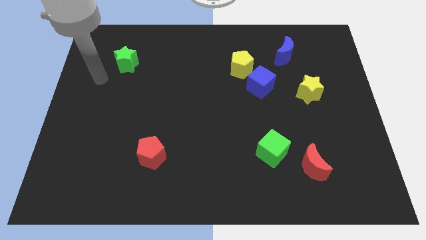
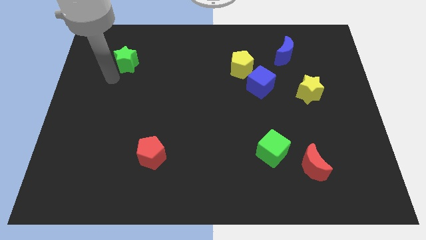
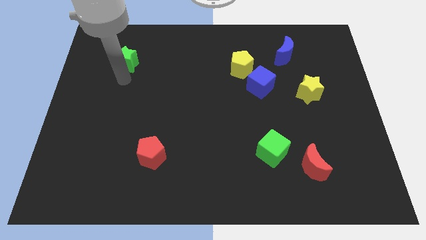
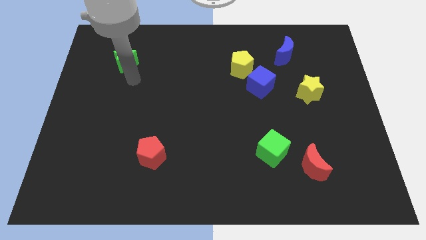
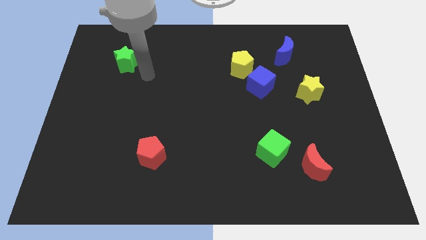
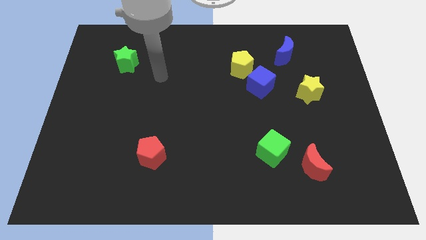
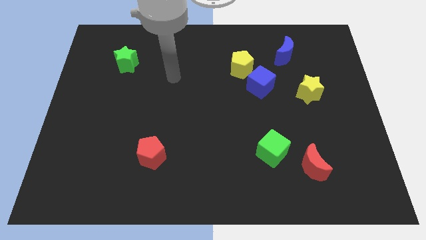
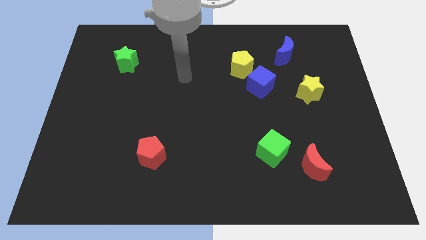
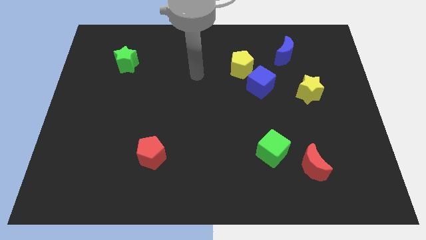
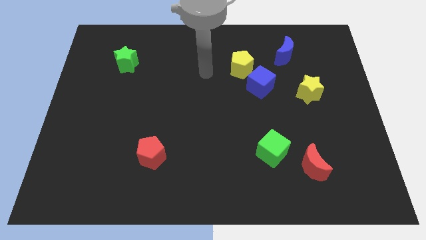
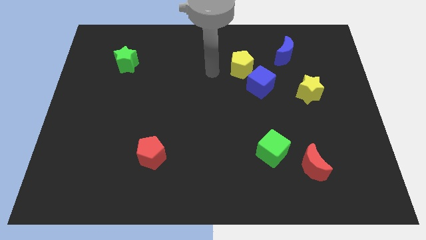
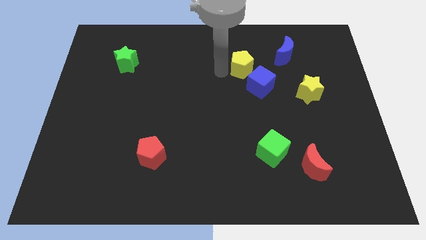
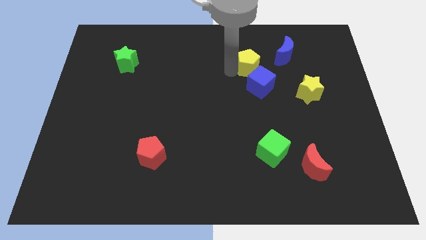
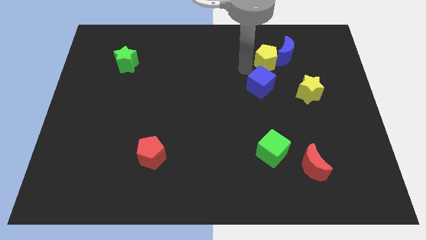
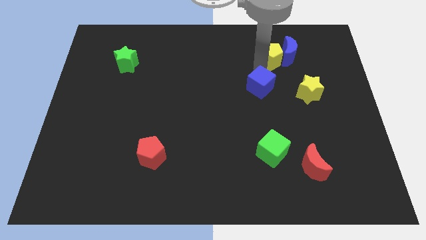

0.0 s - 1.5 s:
pull the blue cube apart from the yellow pentagon

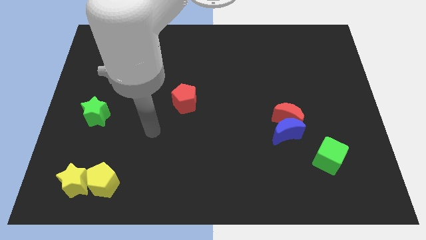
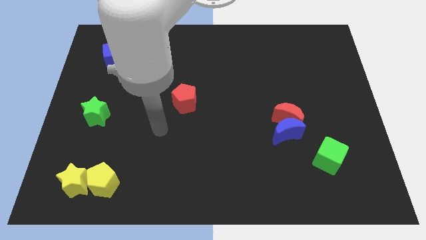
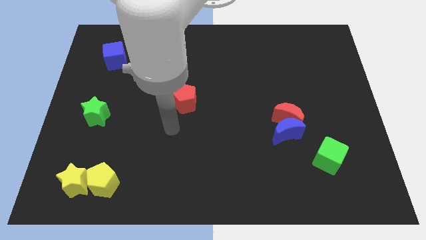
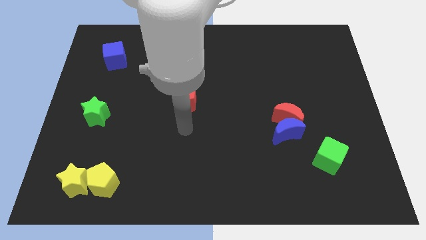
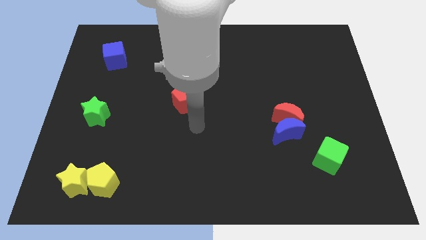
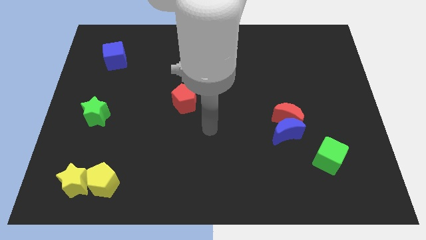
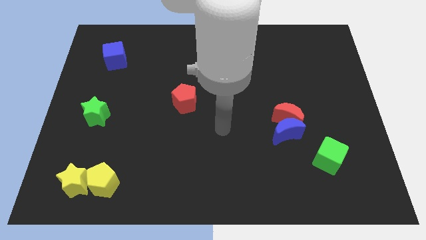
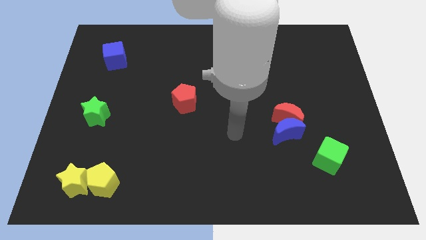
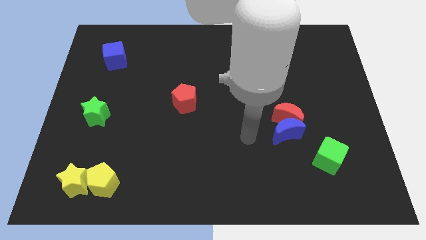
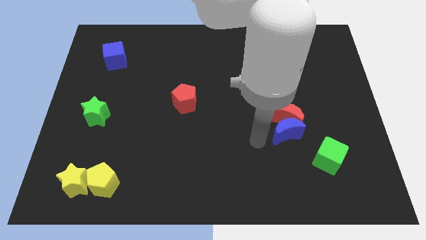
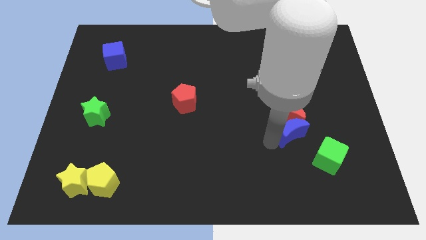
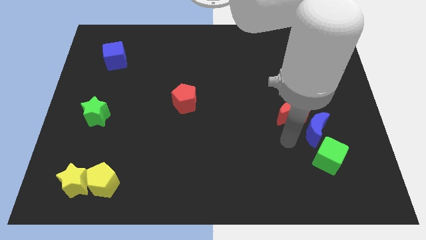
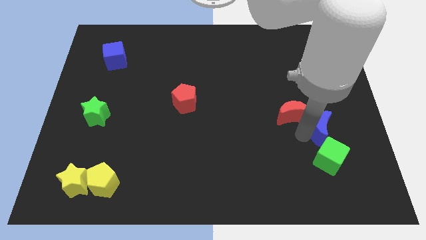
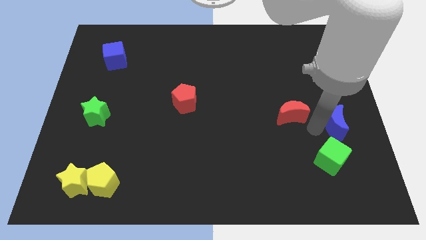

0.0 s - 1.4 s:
pull the red moon apart from the blue moon

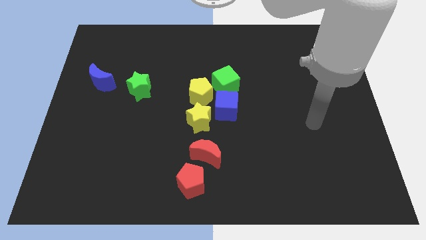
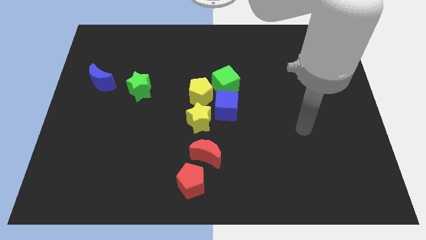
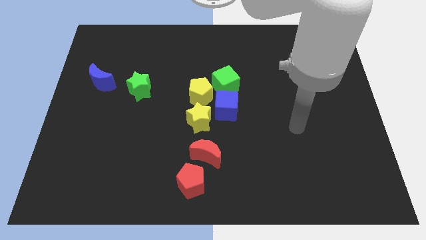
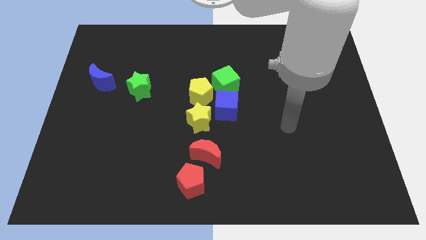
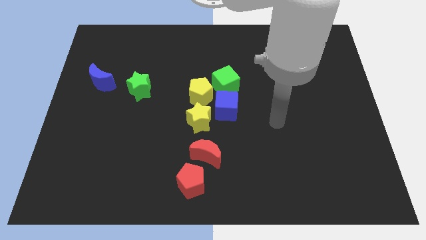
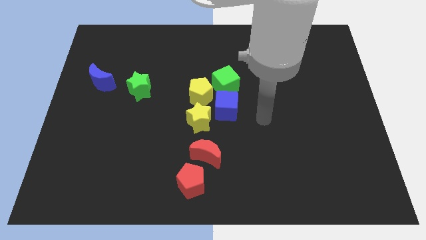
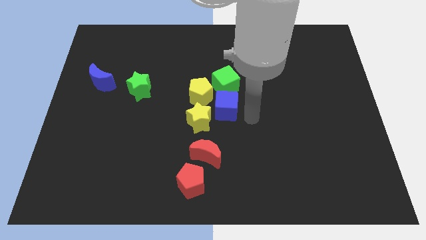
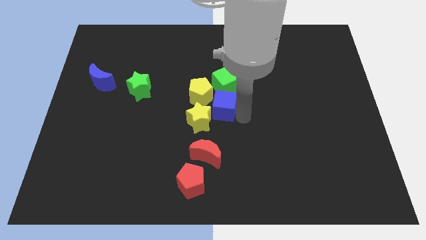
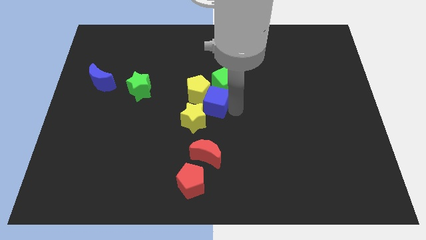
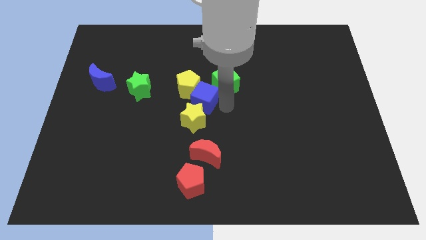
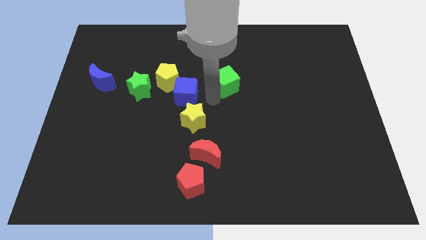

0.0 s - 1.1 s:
move the green cube away from the yellow pentagon and blue cube

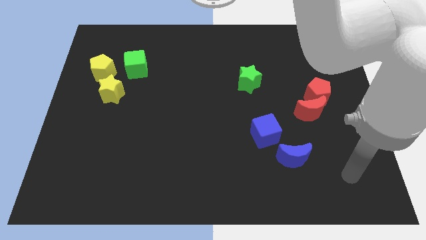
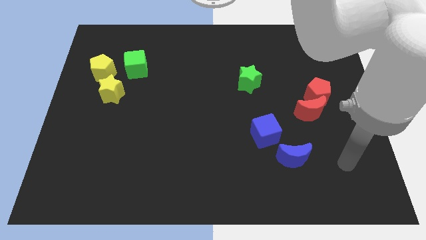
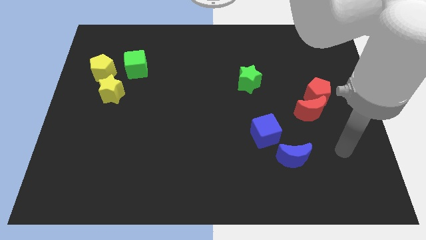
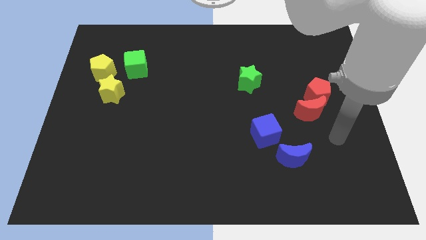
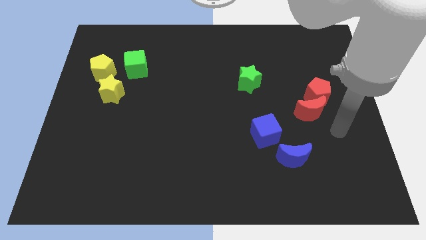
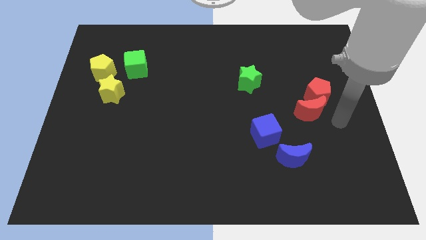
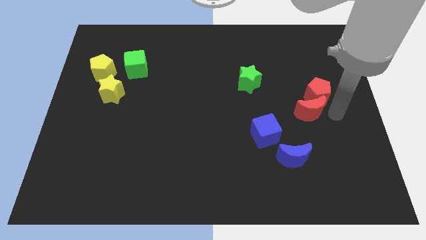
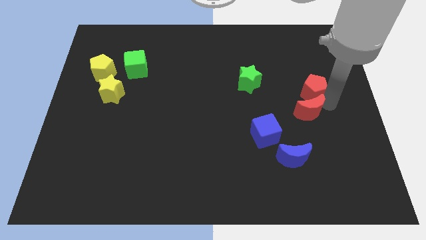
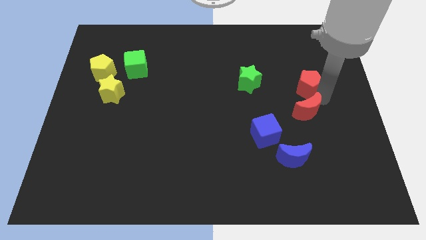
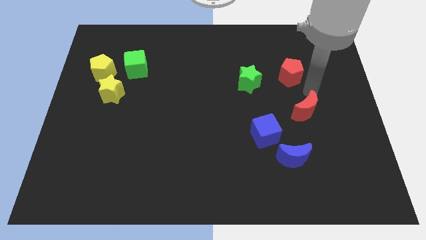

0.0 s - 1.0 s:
separate the red moon from the red pentagon

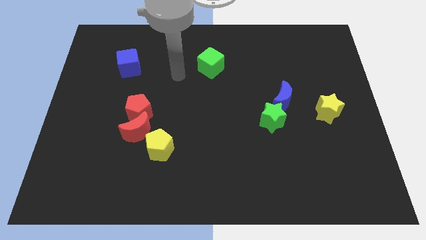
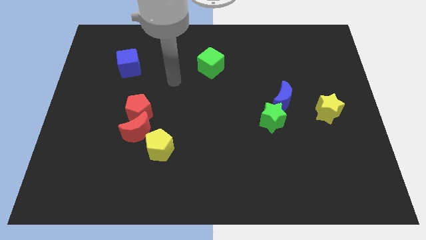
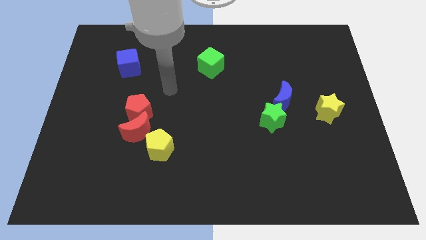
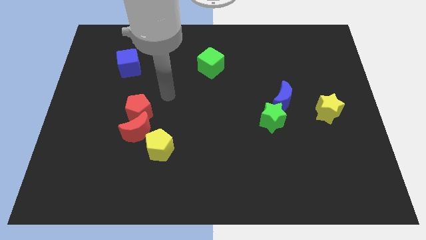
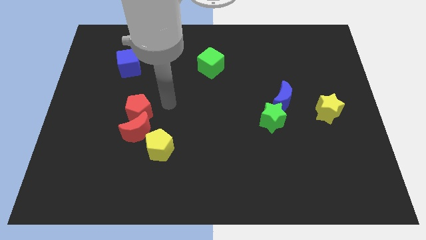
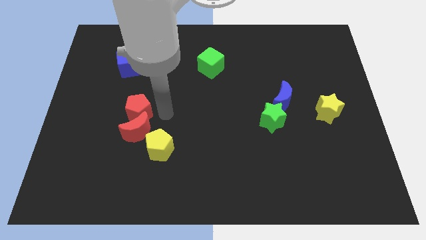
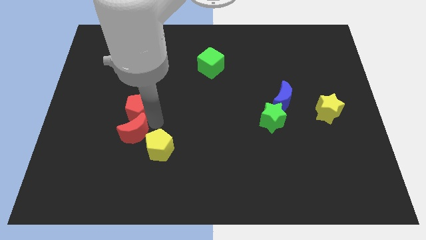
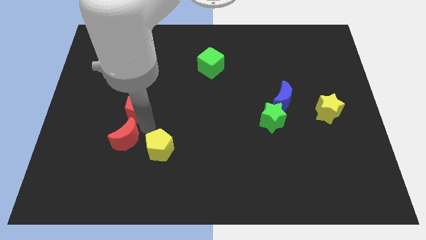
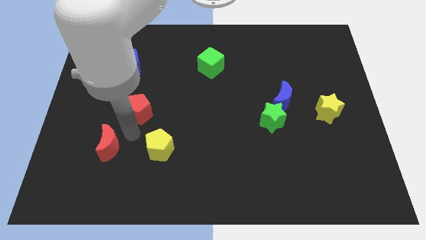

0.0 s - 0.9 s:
pull the red pentagon apart from the red moon

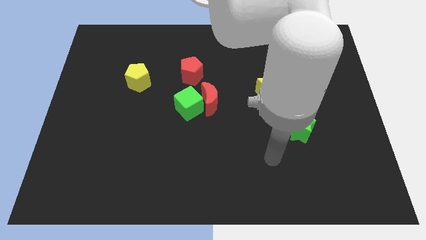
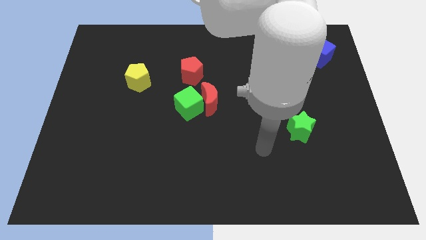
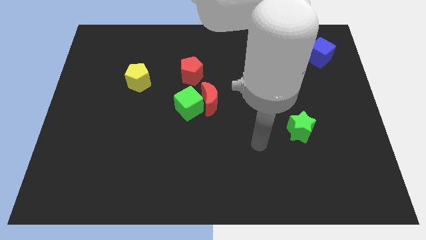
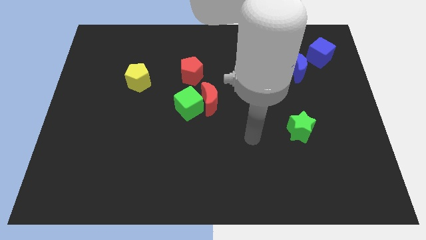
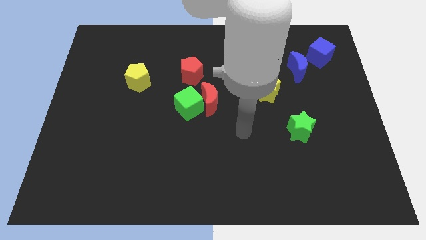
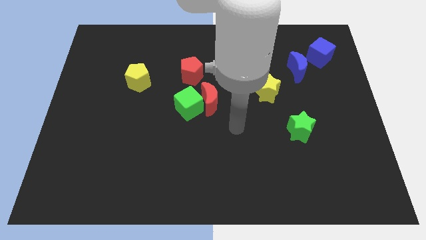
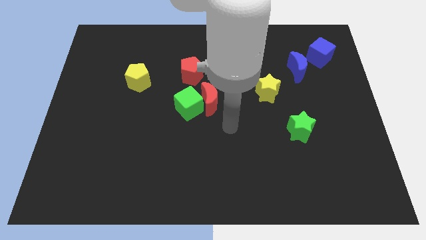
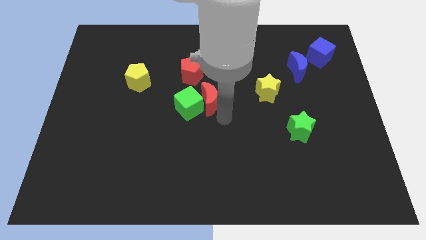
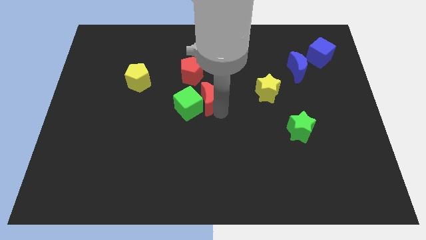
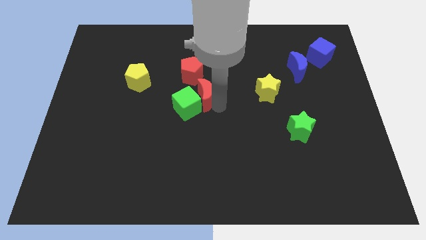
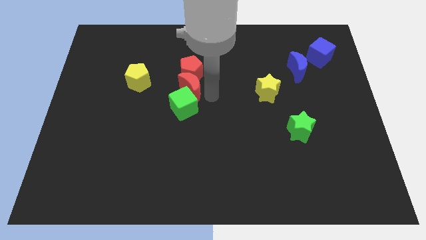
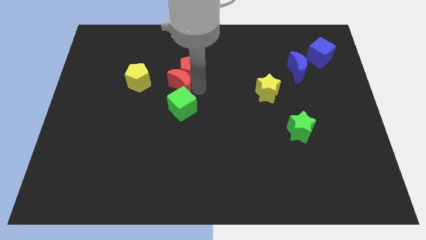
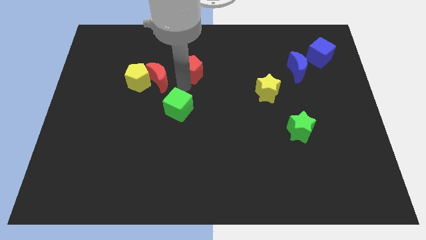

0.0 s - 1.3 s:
separate the green cube from the red moon

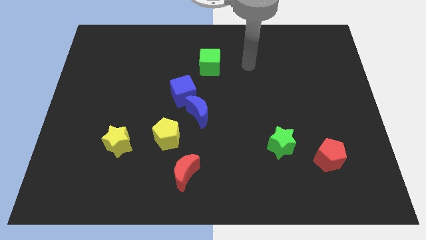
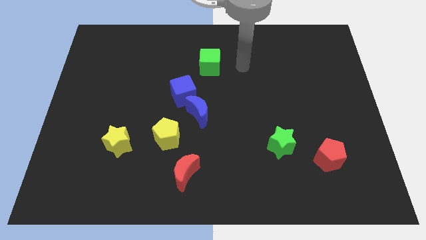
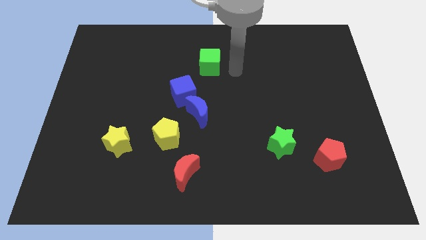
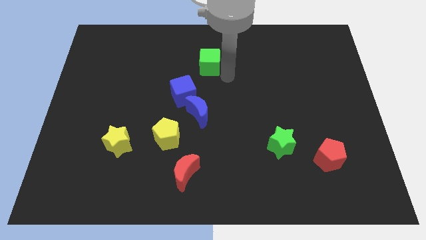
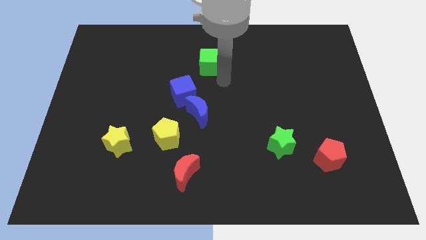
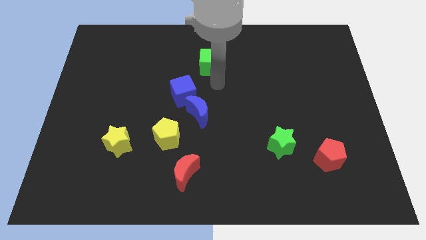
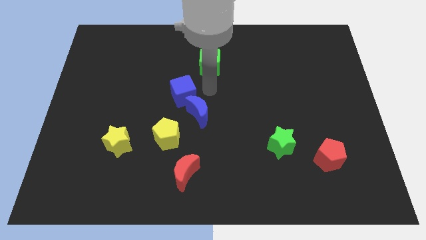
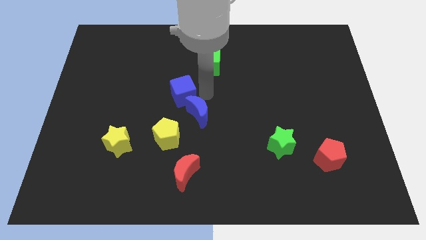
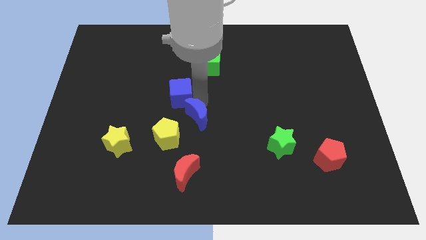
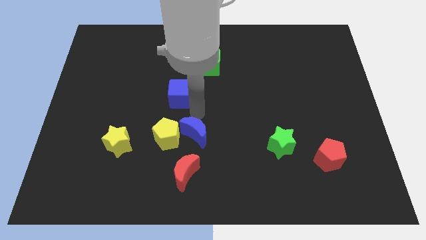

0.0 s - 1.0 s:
separate the blue cube from the blue moon

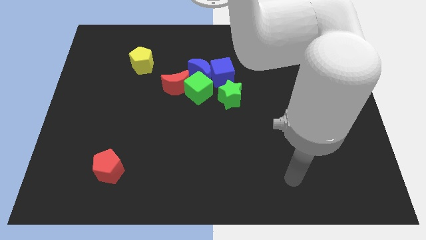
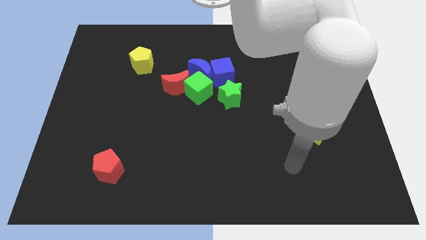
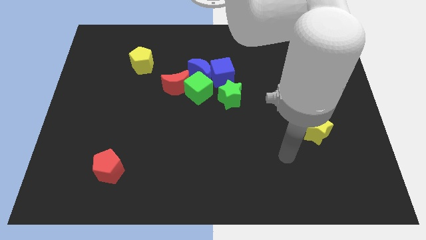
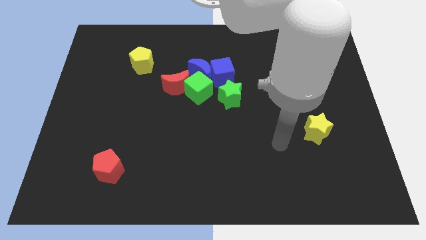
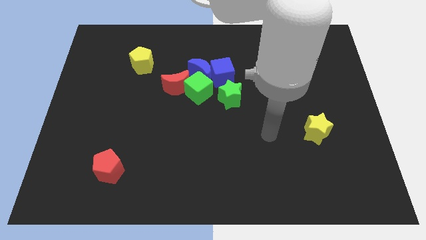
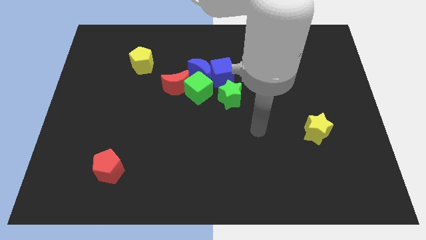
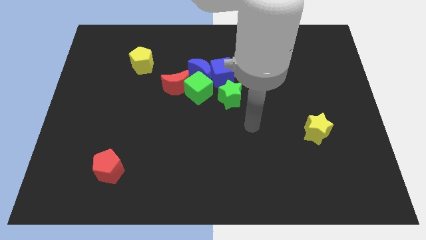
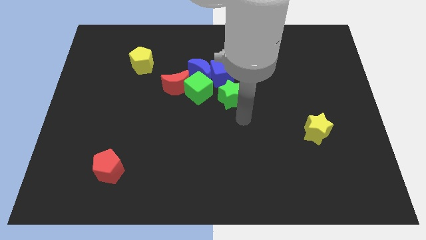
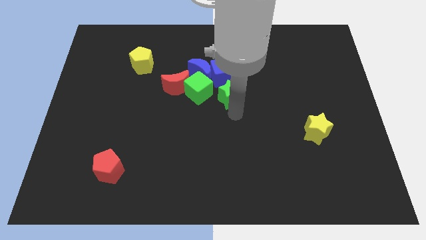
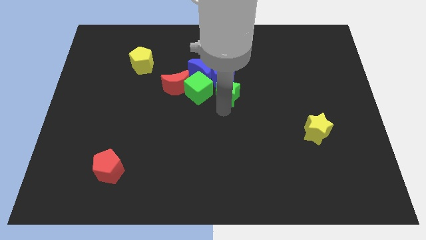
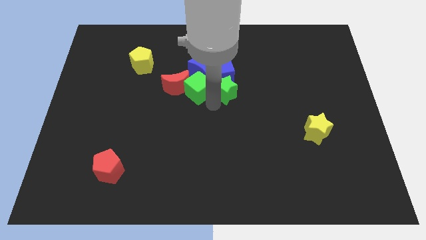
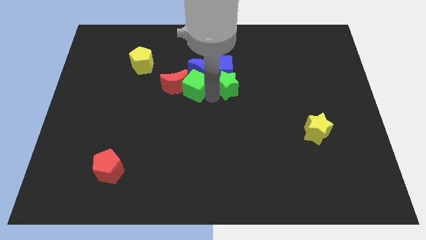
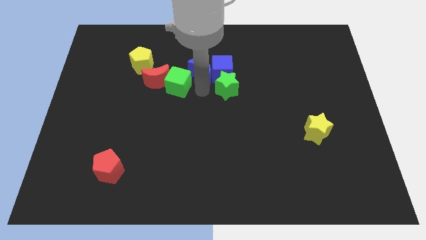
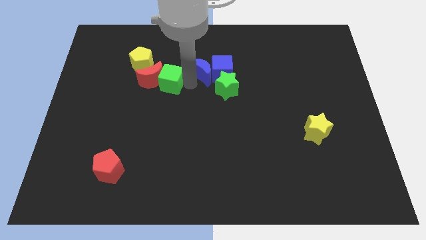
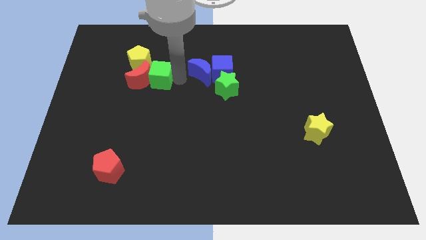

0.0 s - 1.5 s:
move the red moon away from the green cube and blue moon
